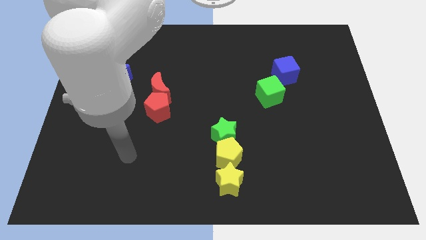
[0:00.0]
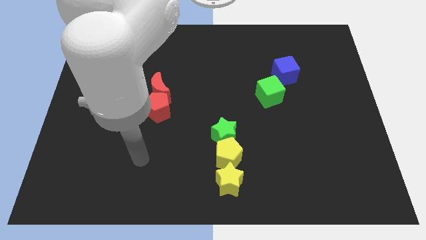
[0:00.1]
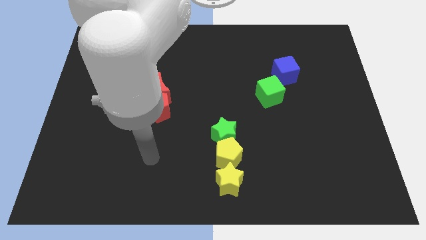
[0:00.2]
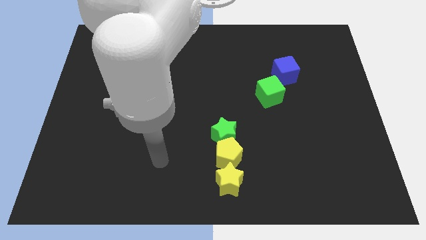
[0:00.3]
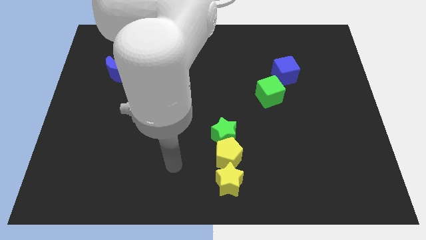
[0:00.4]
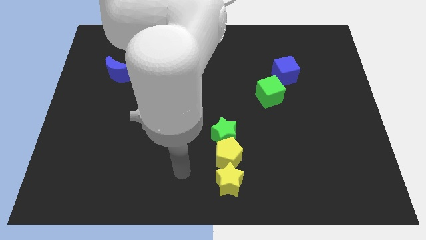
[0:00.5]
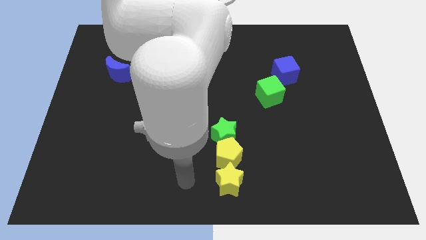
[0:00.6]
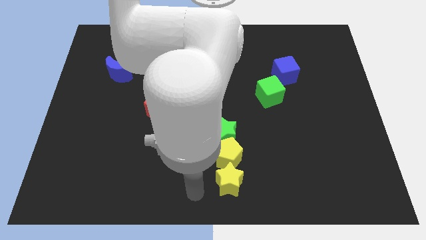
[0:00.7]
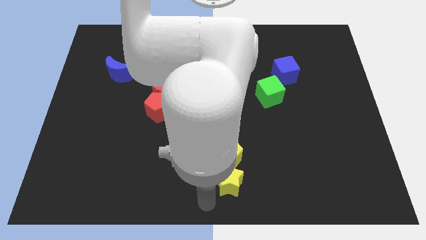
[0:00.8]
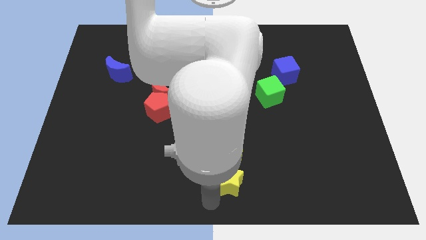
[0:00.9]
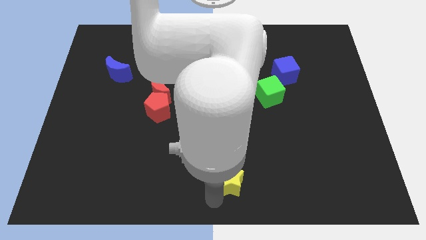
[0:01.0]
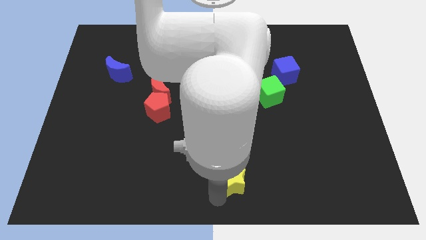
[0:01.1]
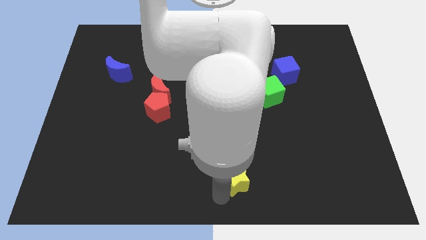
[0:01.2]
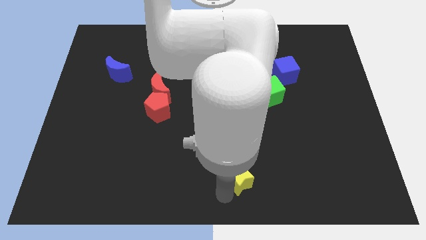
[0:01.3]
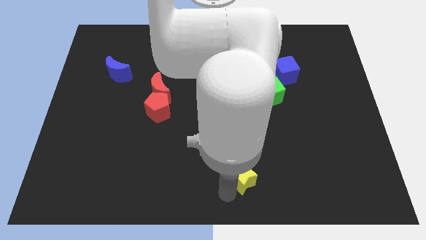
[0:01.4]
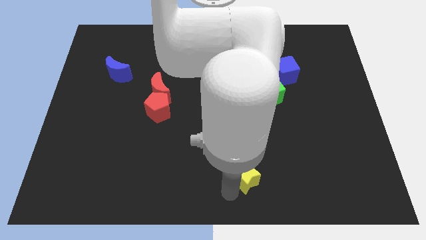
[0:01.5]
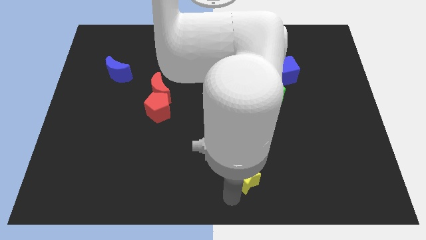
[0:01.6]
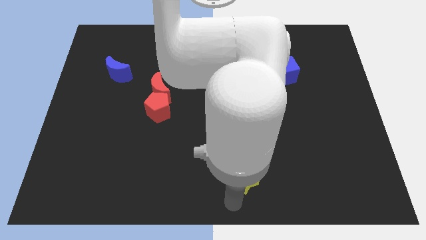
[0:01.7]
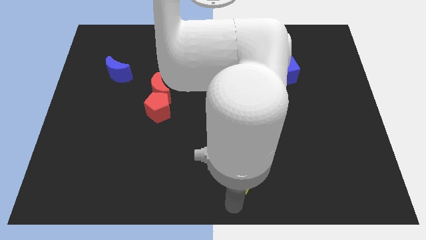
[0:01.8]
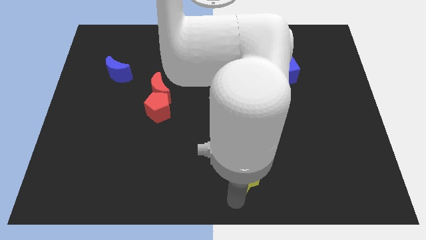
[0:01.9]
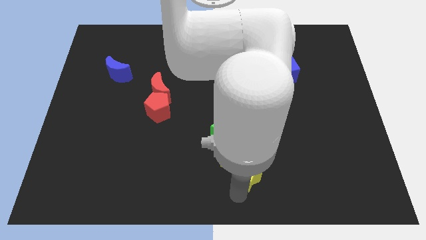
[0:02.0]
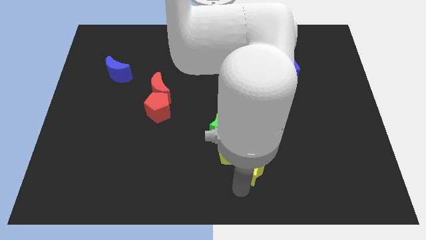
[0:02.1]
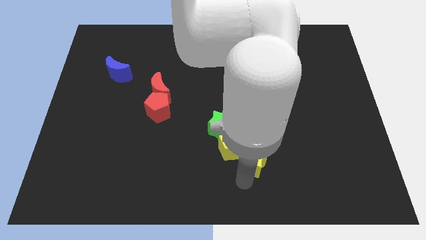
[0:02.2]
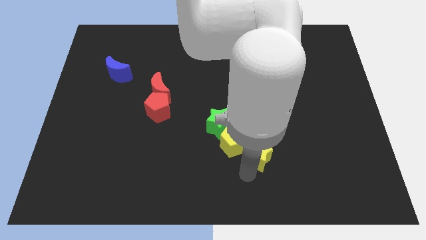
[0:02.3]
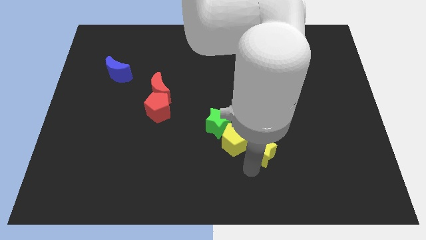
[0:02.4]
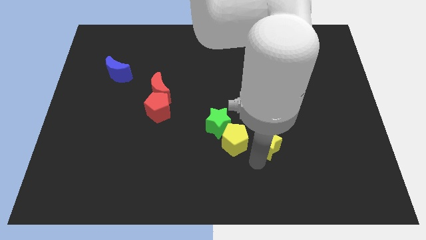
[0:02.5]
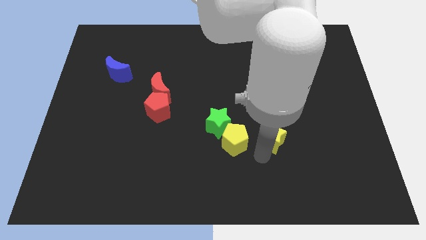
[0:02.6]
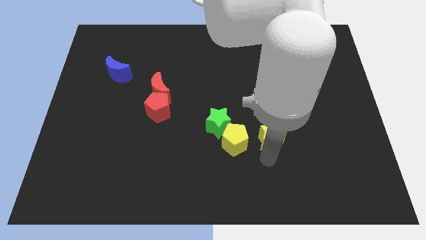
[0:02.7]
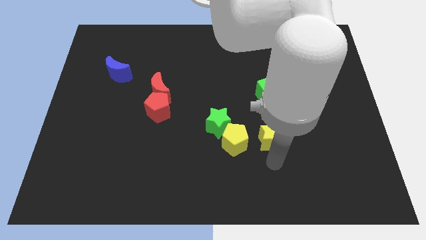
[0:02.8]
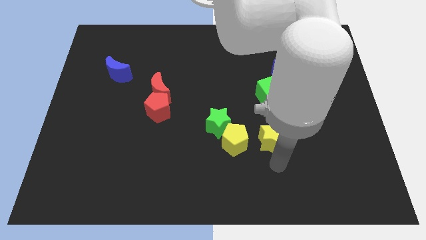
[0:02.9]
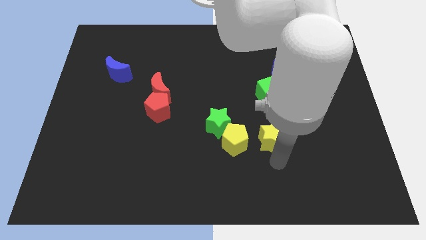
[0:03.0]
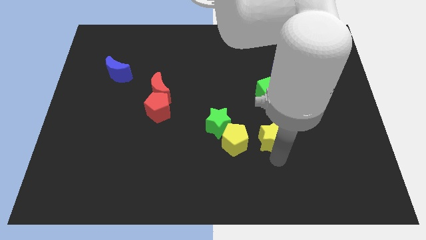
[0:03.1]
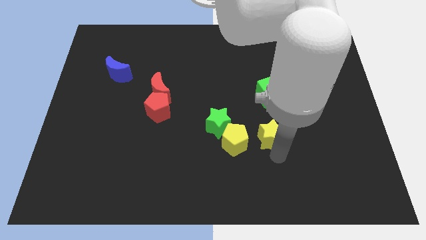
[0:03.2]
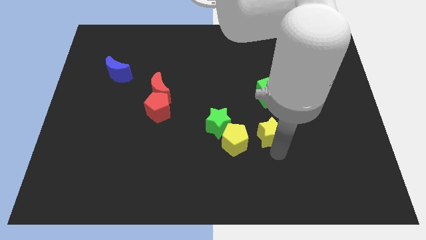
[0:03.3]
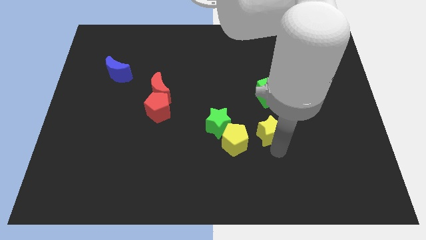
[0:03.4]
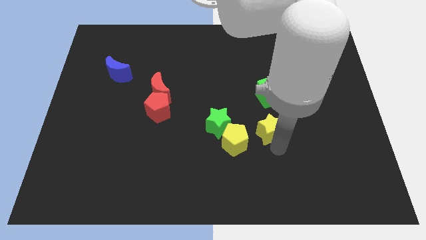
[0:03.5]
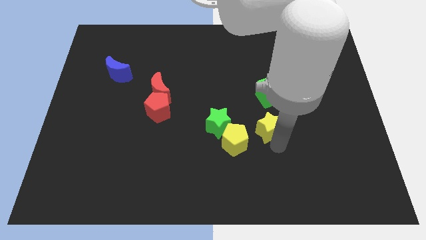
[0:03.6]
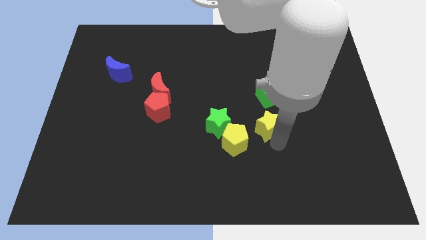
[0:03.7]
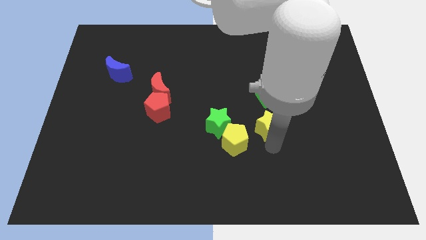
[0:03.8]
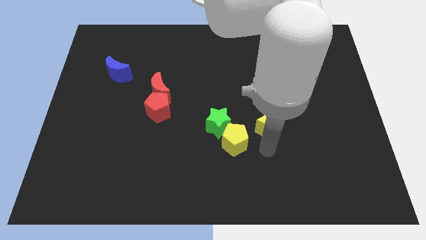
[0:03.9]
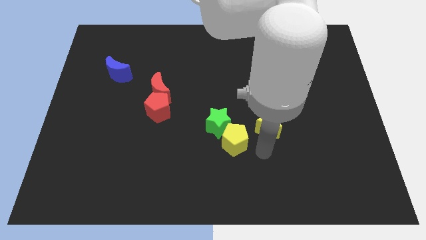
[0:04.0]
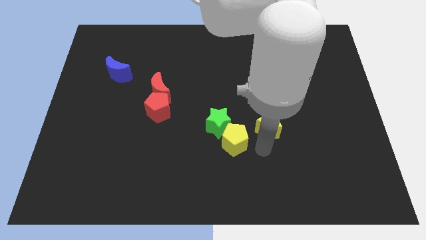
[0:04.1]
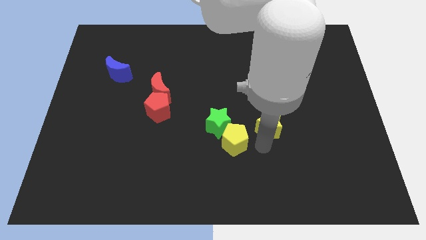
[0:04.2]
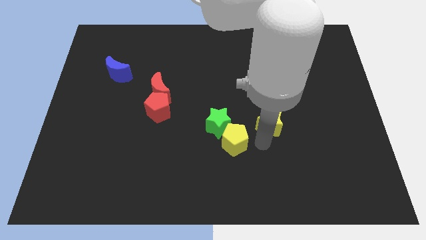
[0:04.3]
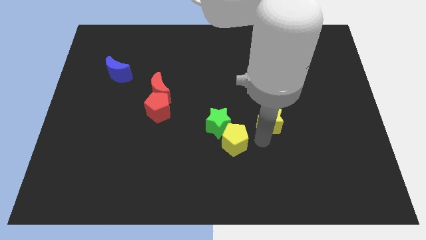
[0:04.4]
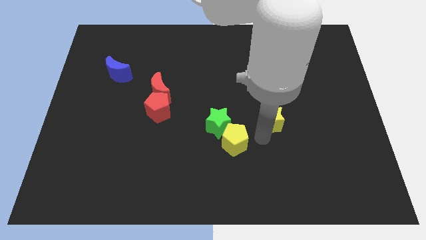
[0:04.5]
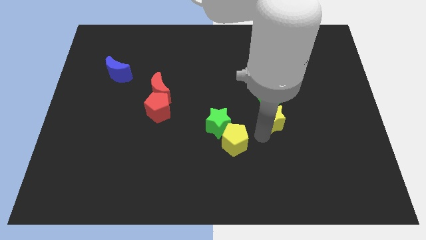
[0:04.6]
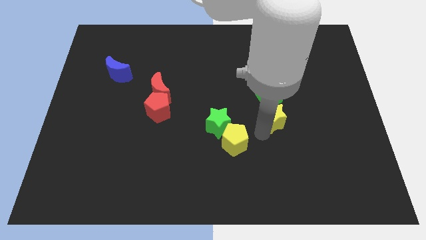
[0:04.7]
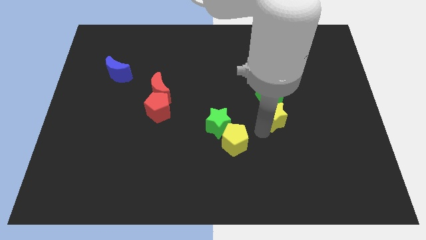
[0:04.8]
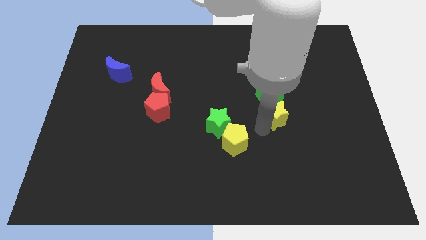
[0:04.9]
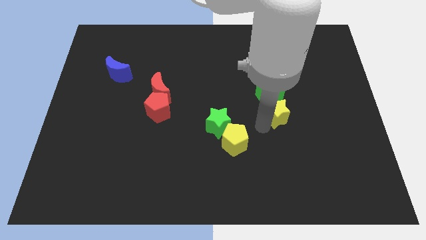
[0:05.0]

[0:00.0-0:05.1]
slide the yellow star towards the green cube

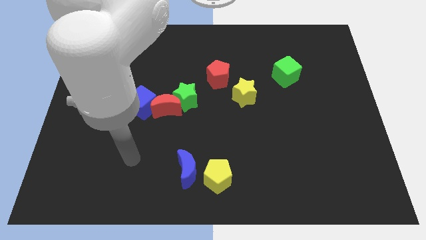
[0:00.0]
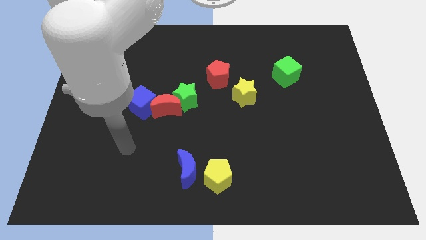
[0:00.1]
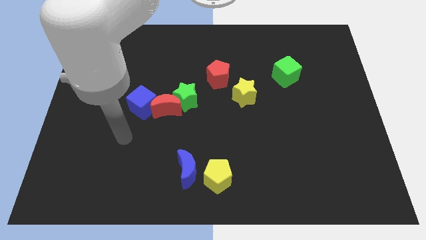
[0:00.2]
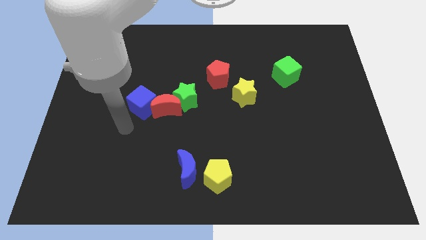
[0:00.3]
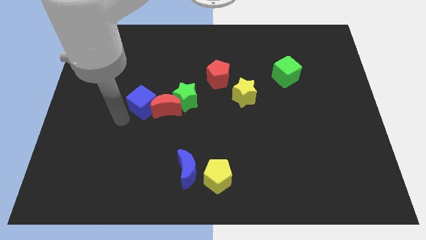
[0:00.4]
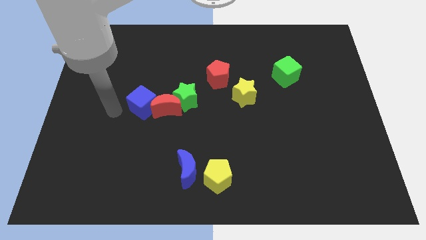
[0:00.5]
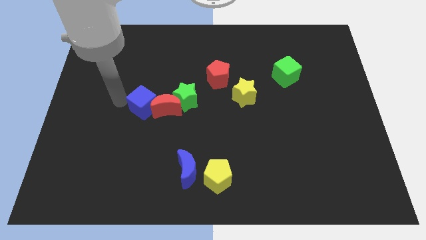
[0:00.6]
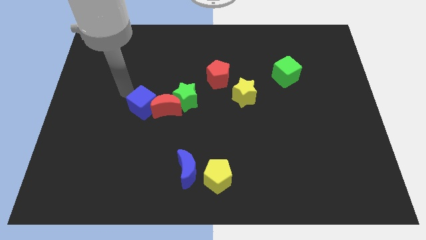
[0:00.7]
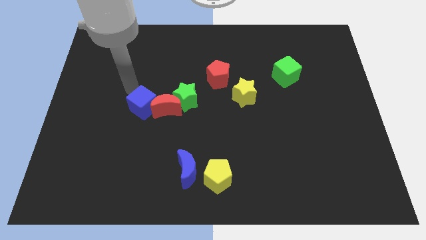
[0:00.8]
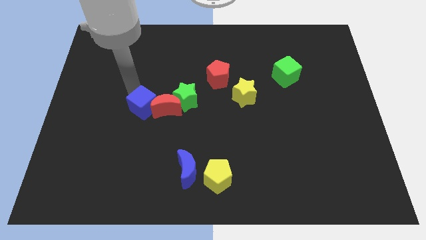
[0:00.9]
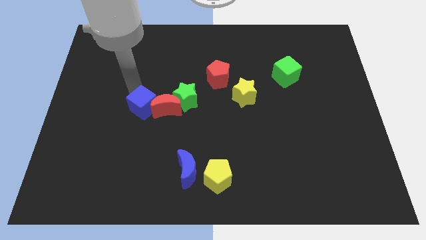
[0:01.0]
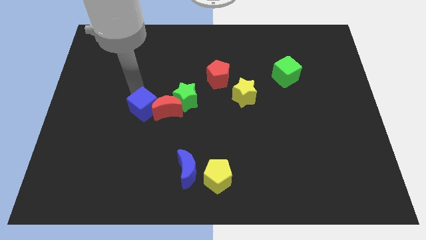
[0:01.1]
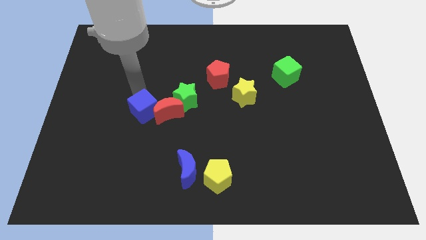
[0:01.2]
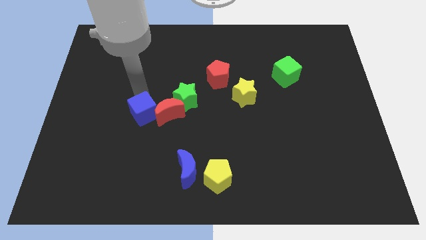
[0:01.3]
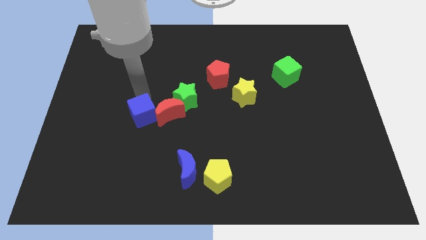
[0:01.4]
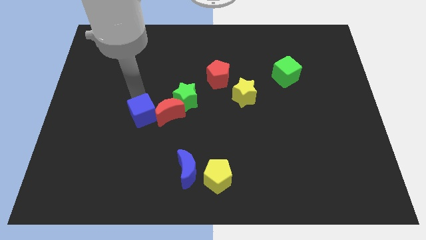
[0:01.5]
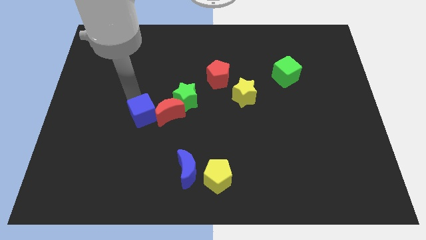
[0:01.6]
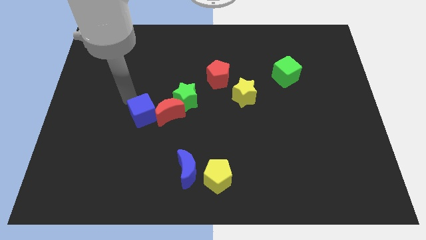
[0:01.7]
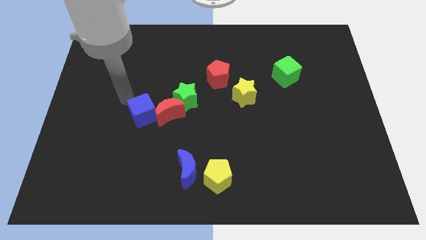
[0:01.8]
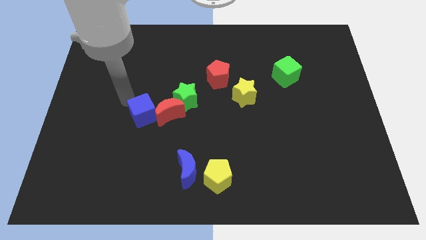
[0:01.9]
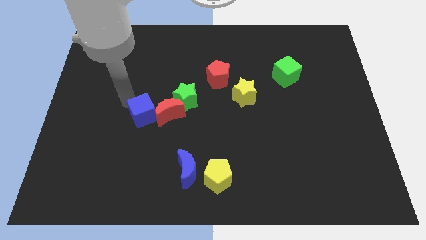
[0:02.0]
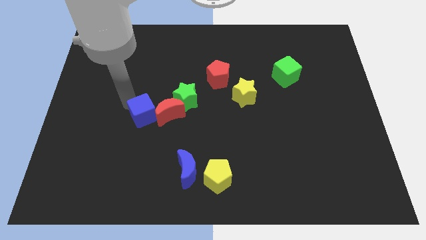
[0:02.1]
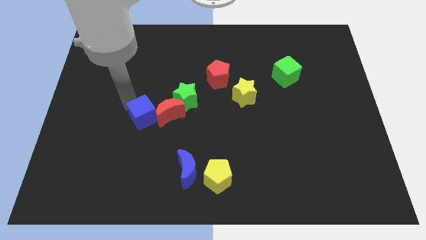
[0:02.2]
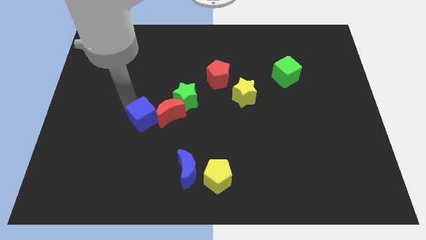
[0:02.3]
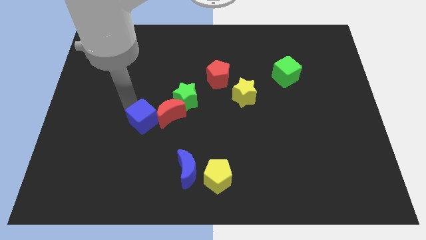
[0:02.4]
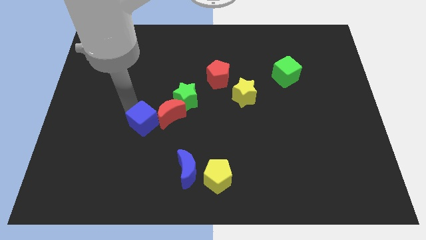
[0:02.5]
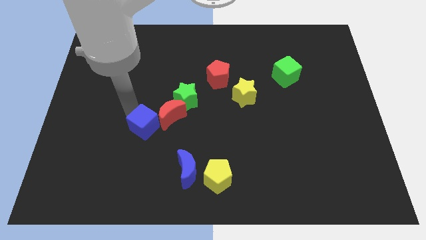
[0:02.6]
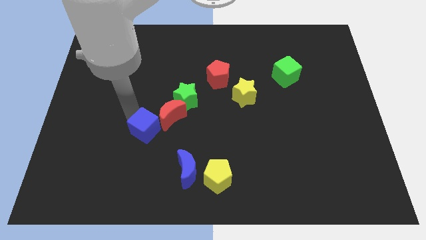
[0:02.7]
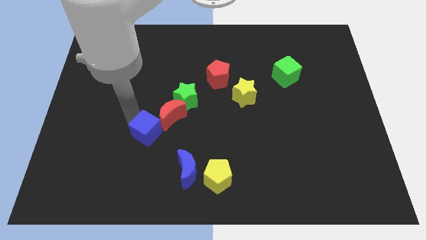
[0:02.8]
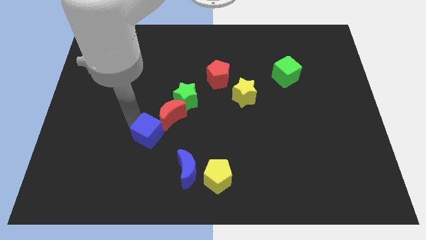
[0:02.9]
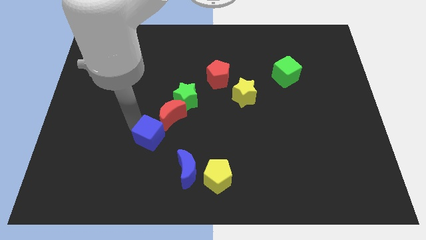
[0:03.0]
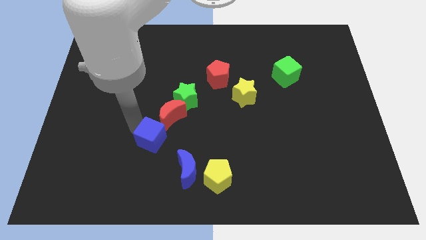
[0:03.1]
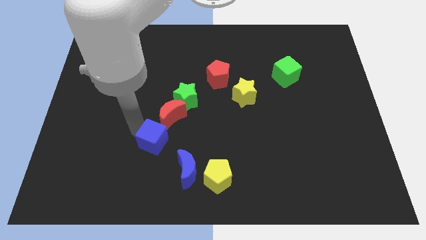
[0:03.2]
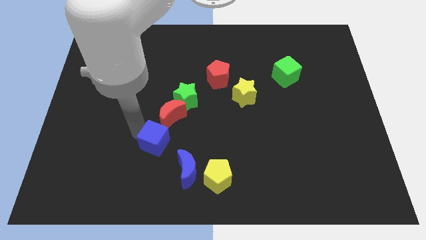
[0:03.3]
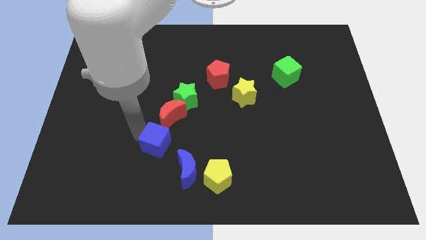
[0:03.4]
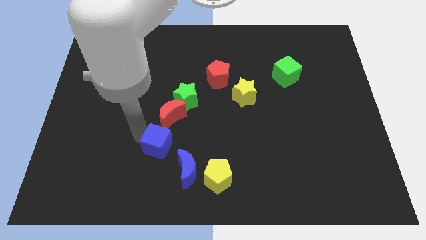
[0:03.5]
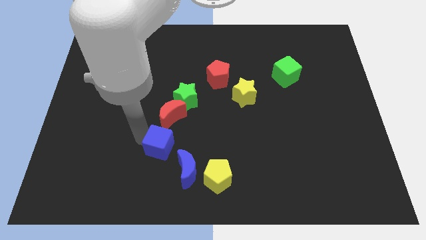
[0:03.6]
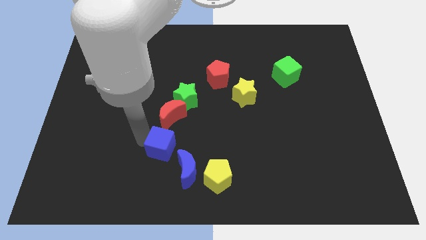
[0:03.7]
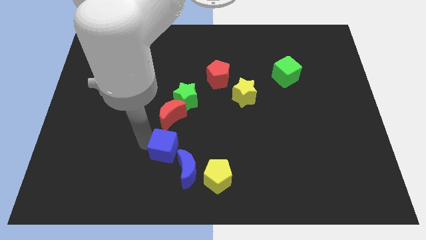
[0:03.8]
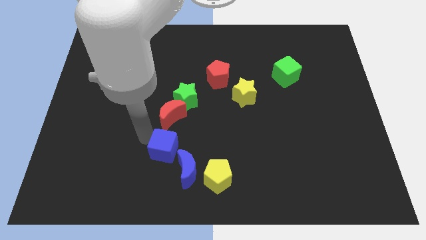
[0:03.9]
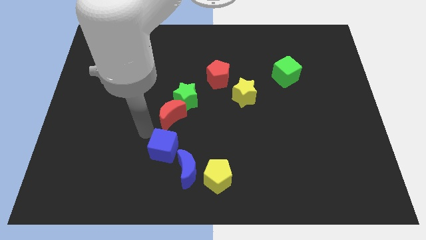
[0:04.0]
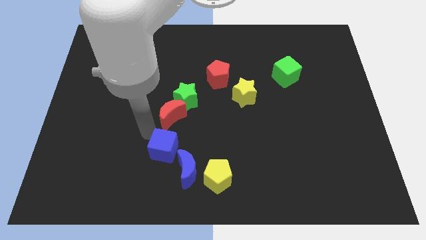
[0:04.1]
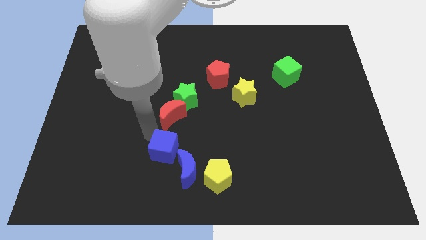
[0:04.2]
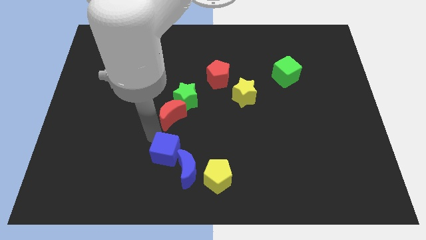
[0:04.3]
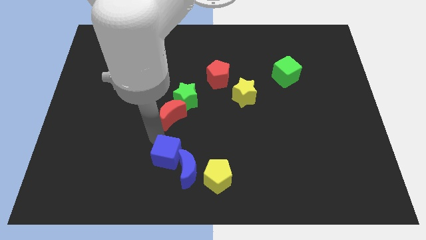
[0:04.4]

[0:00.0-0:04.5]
slide the blue cube next to the blue moon
